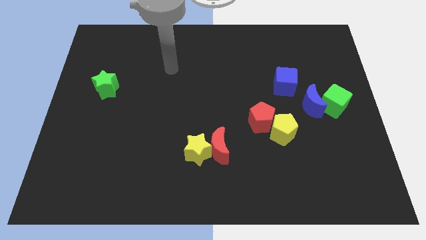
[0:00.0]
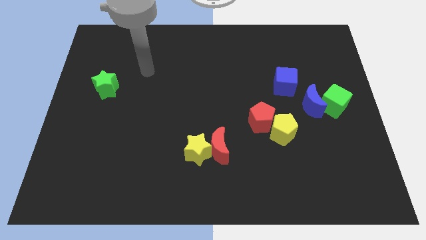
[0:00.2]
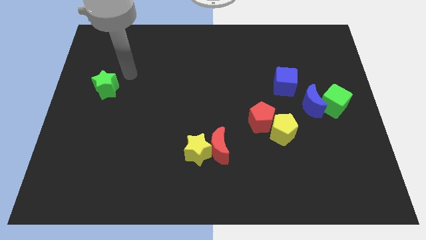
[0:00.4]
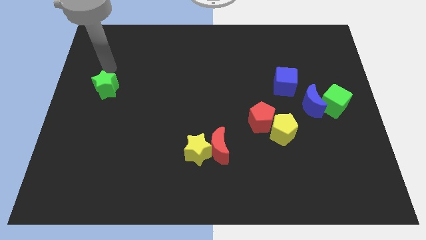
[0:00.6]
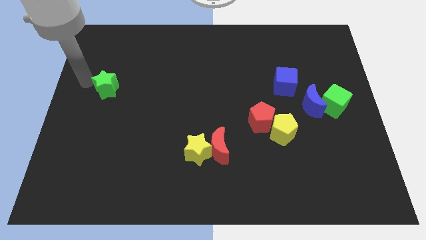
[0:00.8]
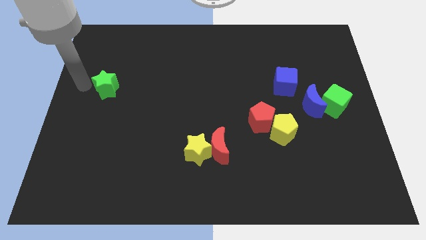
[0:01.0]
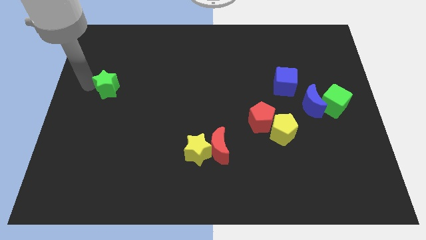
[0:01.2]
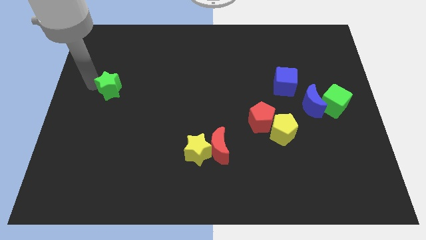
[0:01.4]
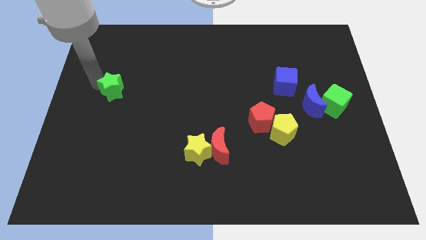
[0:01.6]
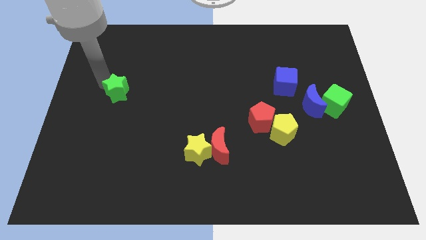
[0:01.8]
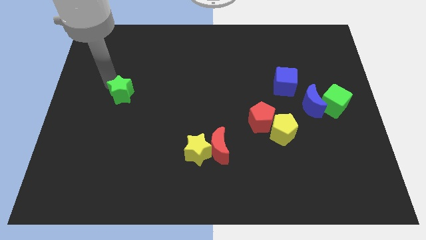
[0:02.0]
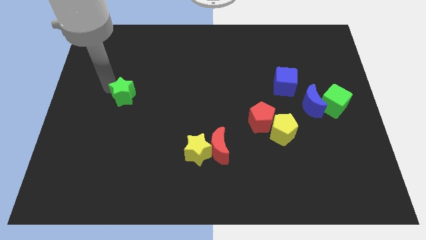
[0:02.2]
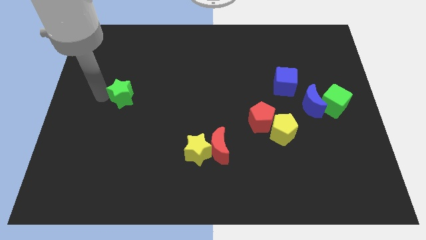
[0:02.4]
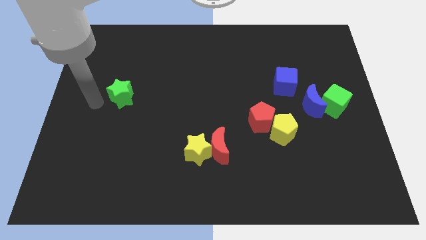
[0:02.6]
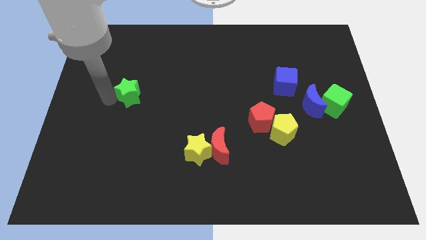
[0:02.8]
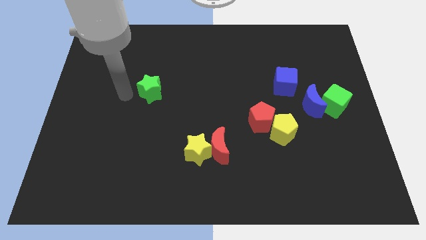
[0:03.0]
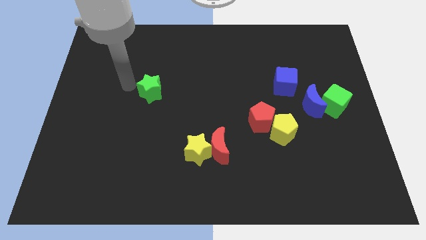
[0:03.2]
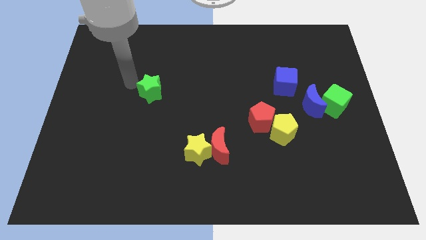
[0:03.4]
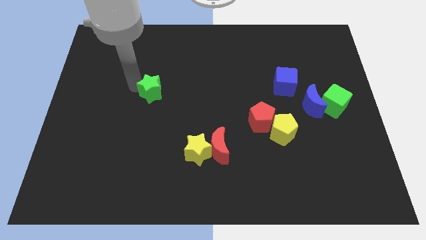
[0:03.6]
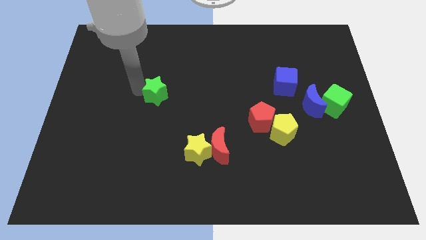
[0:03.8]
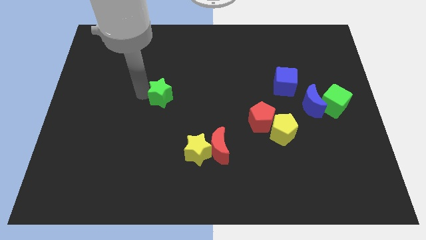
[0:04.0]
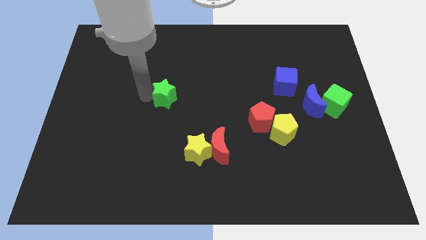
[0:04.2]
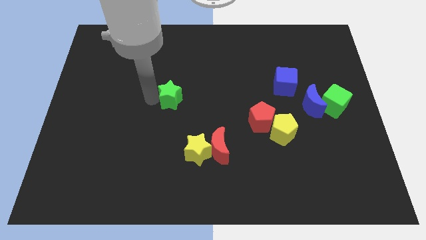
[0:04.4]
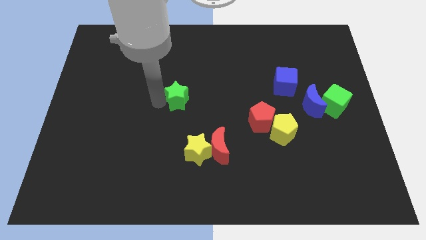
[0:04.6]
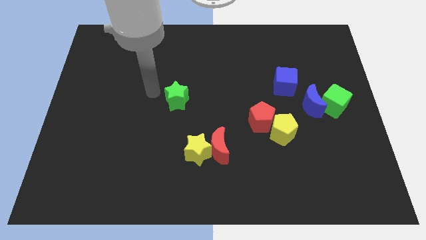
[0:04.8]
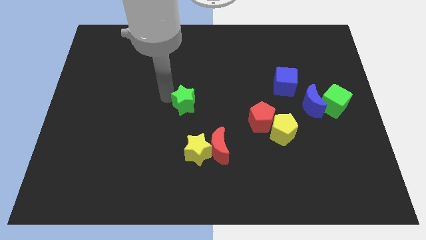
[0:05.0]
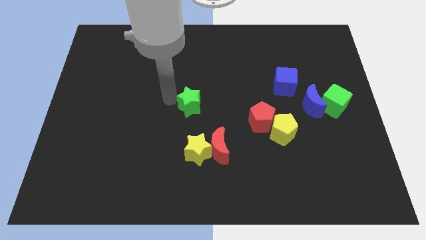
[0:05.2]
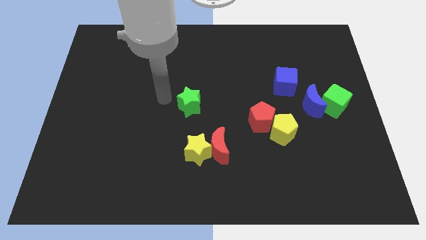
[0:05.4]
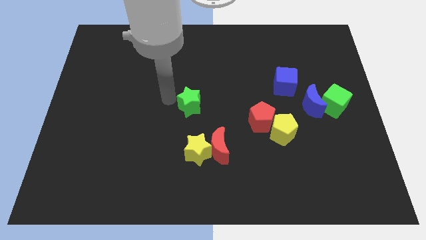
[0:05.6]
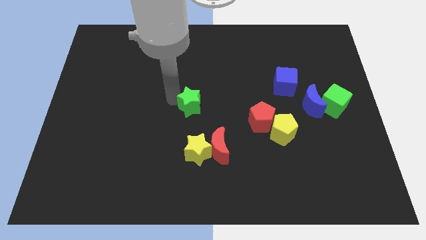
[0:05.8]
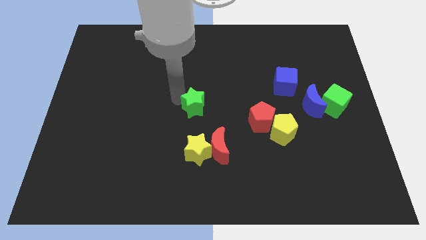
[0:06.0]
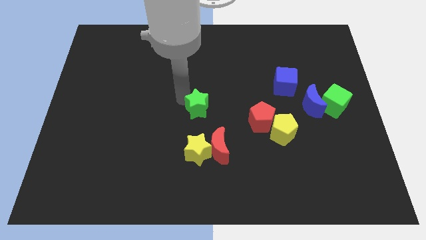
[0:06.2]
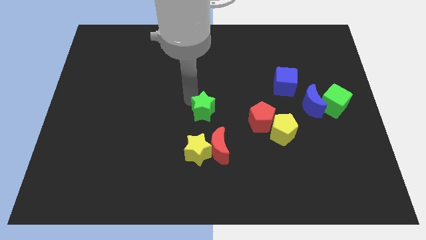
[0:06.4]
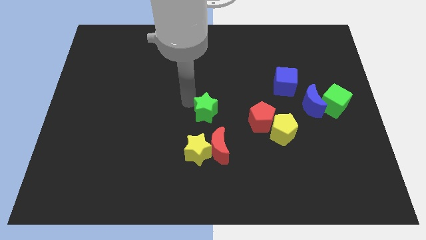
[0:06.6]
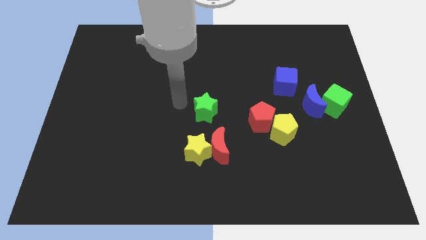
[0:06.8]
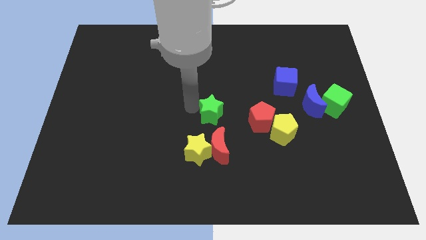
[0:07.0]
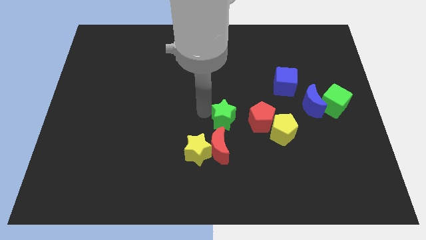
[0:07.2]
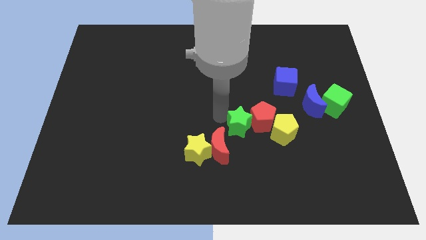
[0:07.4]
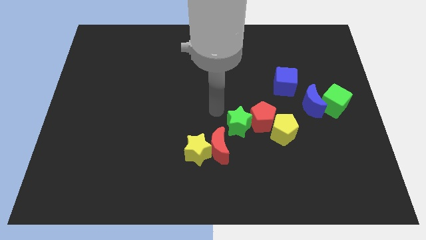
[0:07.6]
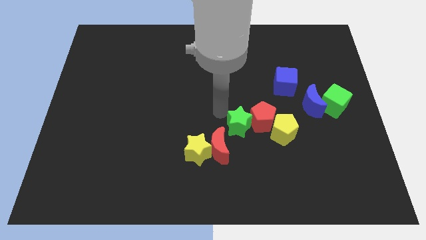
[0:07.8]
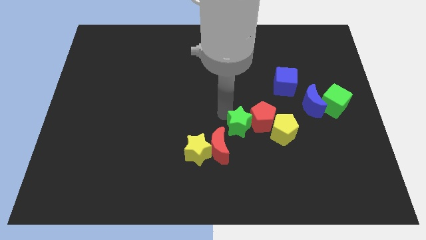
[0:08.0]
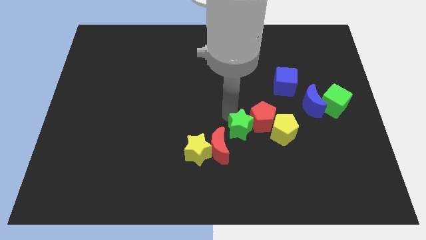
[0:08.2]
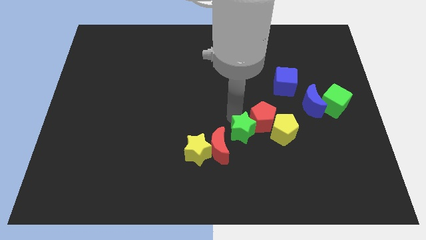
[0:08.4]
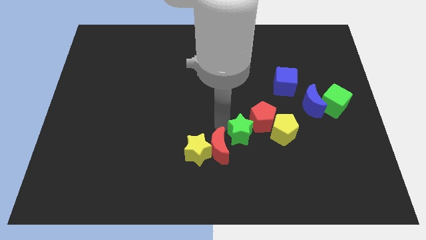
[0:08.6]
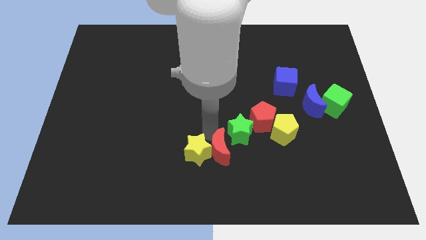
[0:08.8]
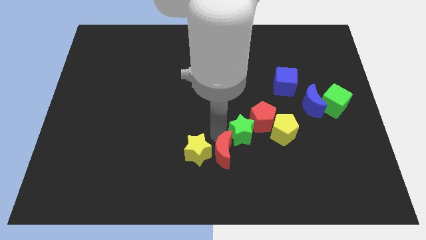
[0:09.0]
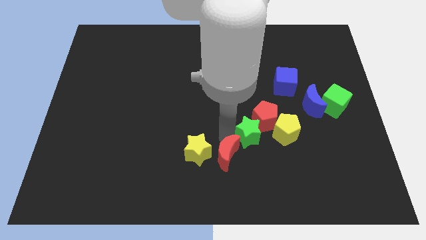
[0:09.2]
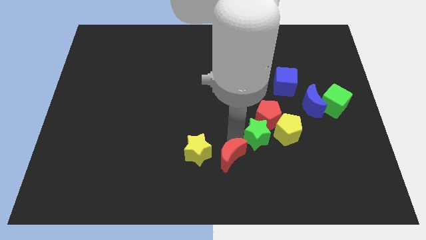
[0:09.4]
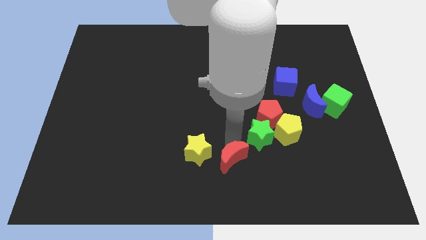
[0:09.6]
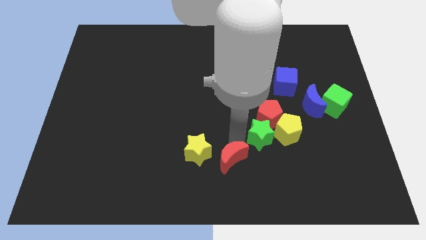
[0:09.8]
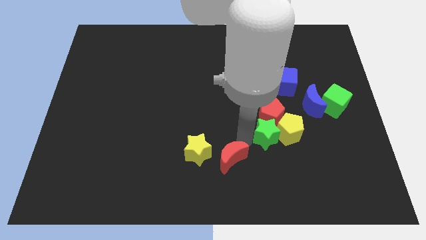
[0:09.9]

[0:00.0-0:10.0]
move the green star towards the yellow pentagon

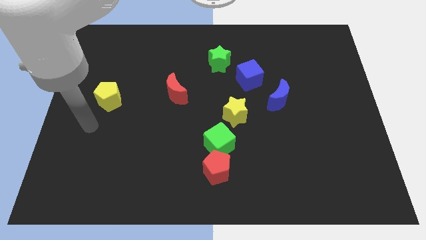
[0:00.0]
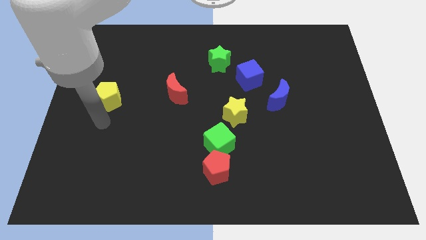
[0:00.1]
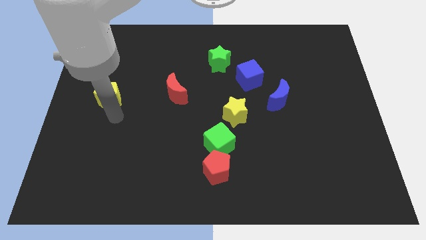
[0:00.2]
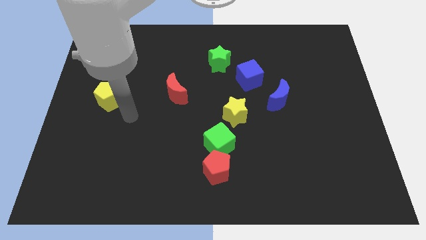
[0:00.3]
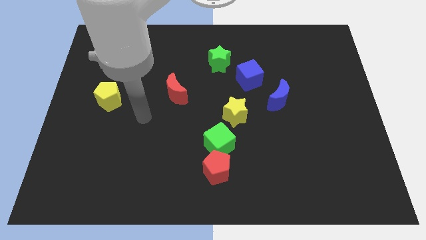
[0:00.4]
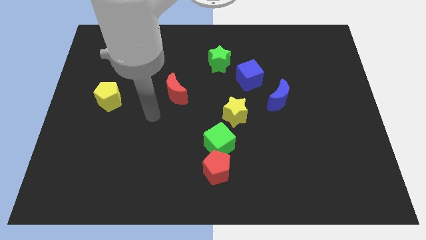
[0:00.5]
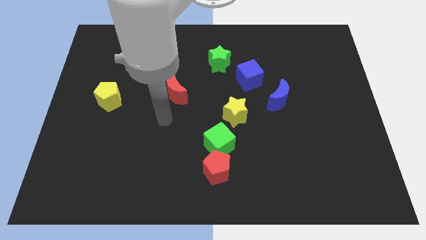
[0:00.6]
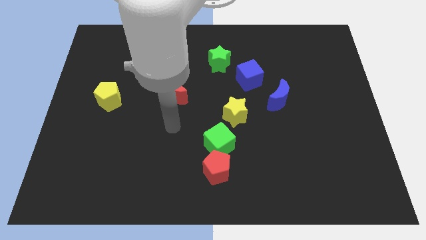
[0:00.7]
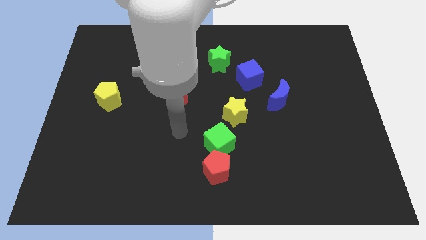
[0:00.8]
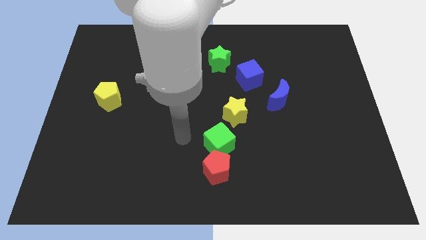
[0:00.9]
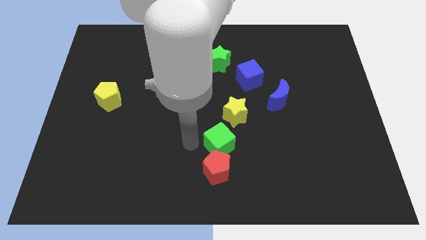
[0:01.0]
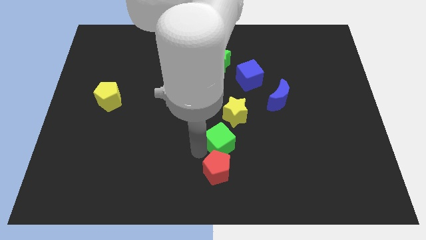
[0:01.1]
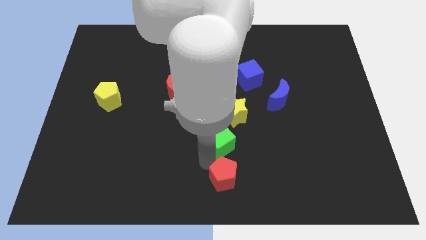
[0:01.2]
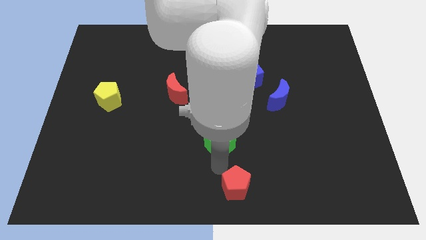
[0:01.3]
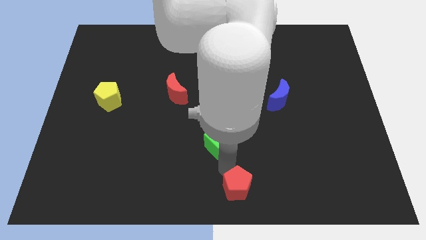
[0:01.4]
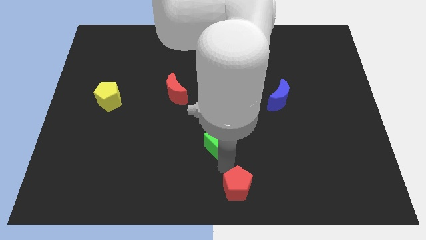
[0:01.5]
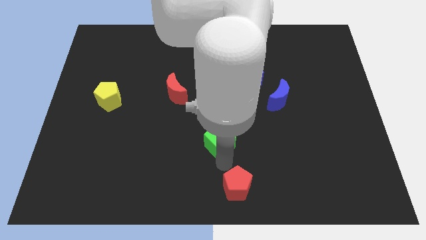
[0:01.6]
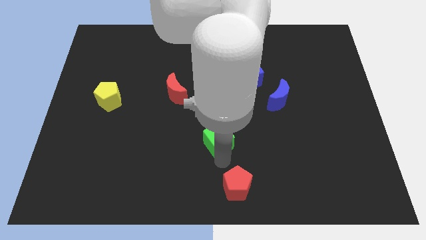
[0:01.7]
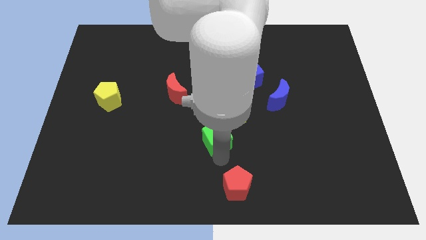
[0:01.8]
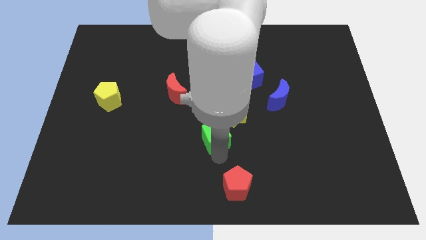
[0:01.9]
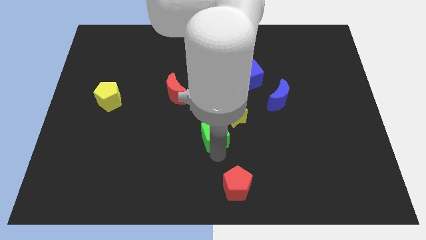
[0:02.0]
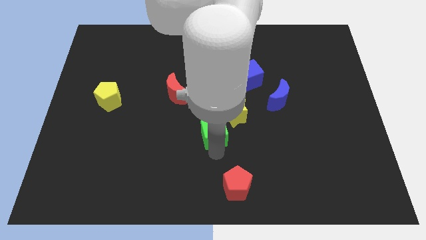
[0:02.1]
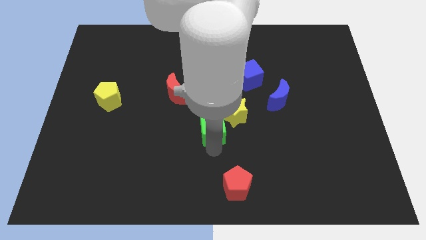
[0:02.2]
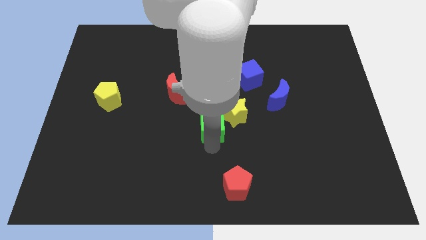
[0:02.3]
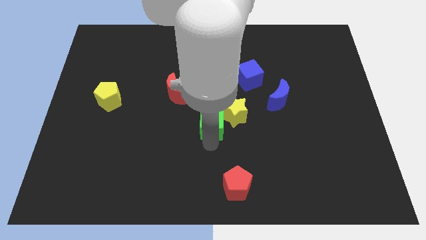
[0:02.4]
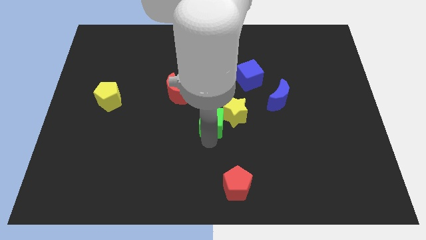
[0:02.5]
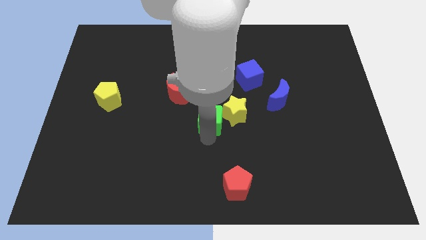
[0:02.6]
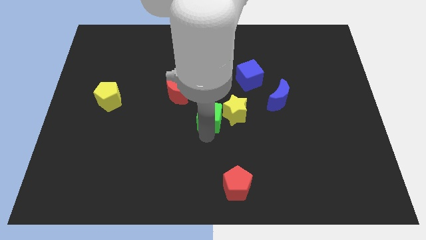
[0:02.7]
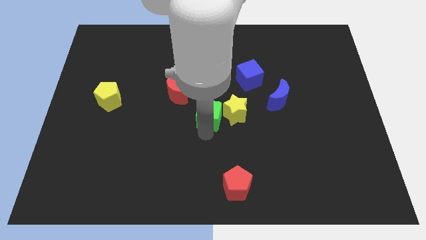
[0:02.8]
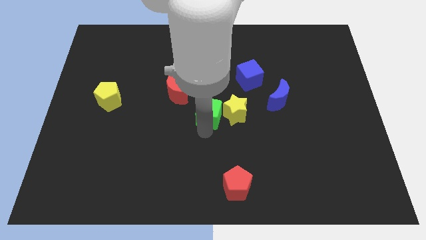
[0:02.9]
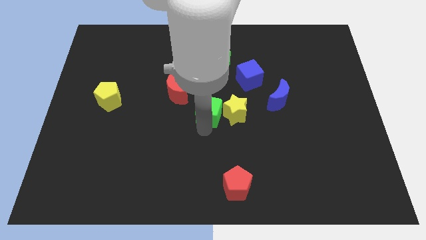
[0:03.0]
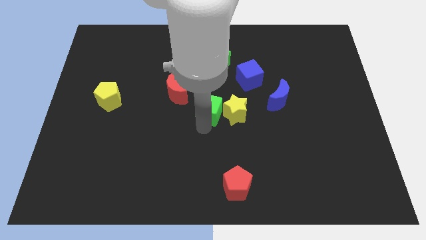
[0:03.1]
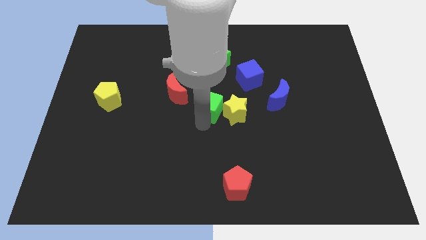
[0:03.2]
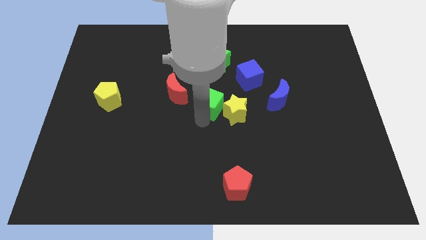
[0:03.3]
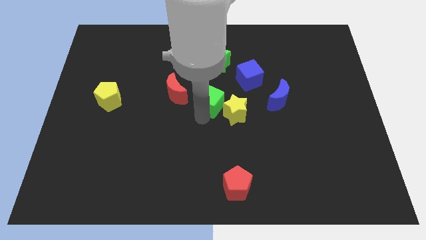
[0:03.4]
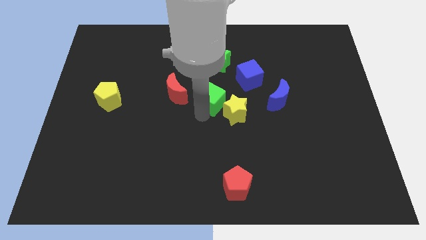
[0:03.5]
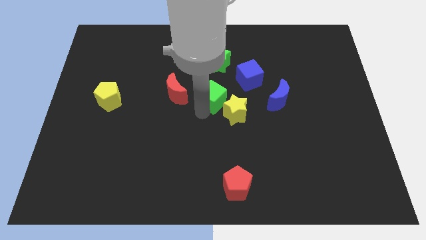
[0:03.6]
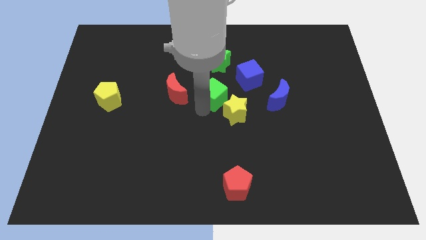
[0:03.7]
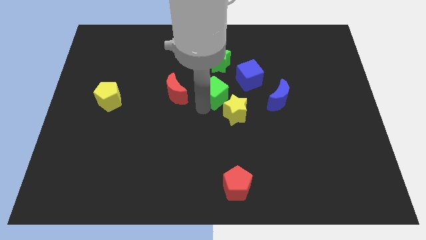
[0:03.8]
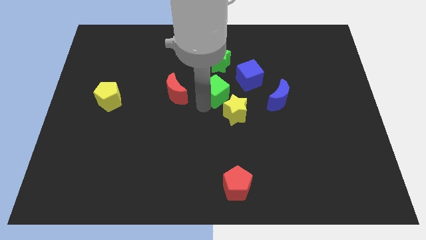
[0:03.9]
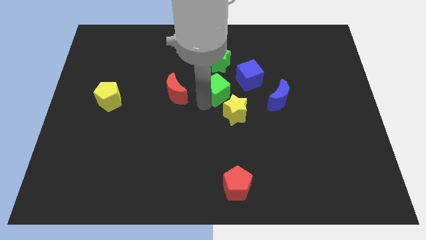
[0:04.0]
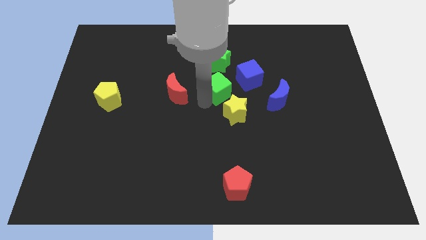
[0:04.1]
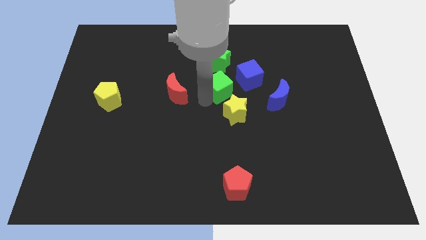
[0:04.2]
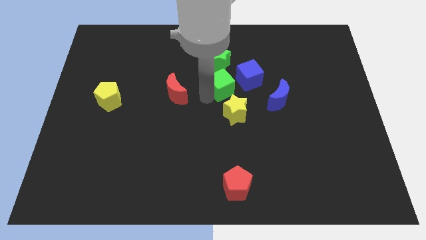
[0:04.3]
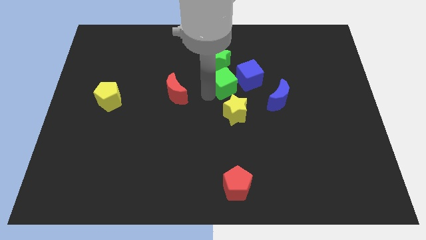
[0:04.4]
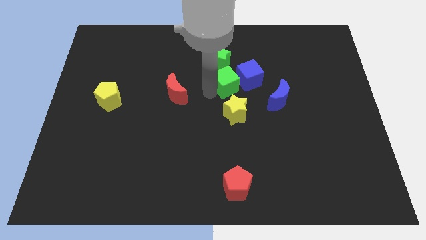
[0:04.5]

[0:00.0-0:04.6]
put the green cube close to the blue cube
